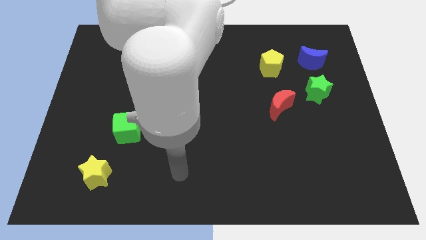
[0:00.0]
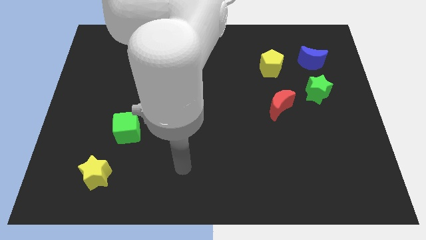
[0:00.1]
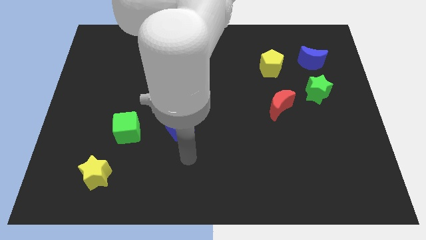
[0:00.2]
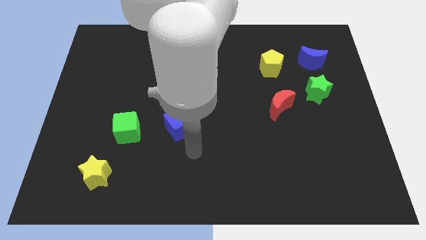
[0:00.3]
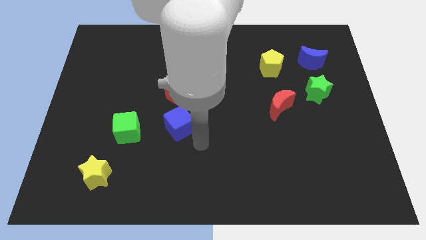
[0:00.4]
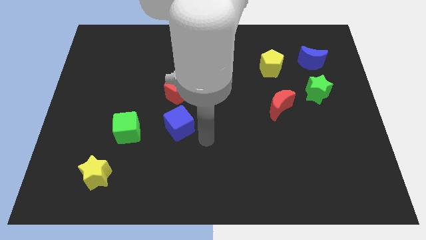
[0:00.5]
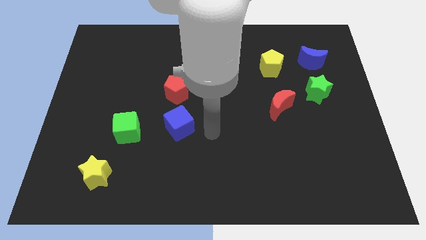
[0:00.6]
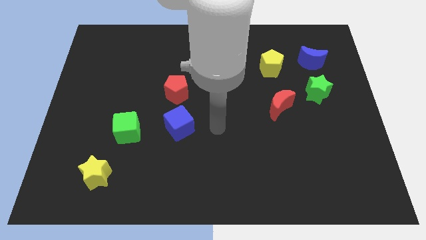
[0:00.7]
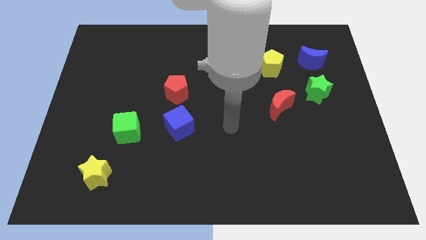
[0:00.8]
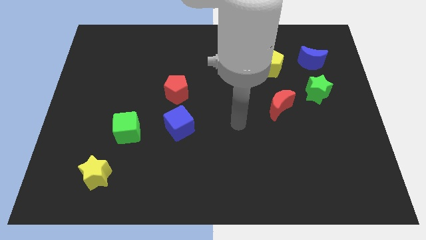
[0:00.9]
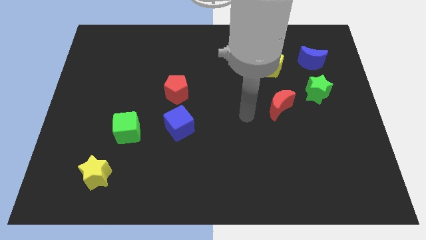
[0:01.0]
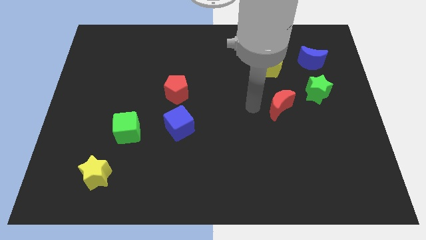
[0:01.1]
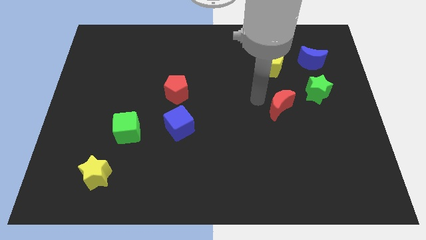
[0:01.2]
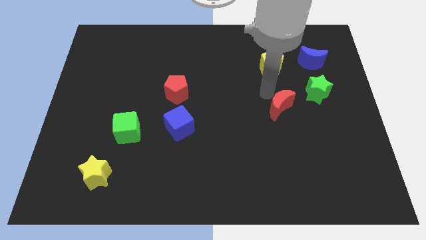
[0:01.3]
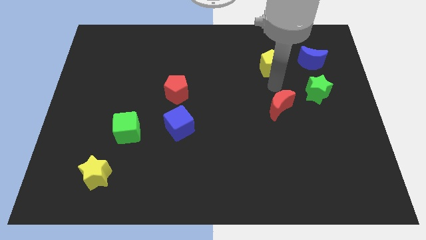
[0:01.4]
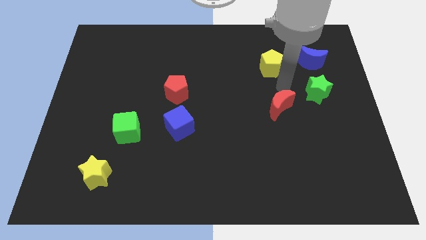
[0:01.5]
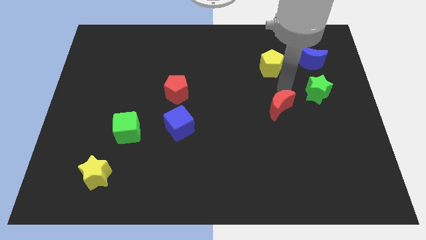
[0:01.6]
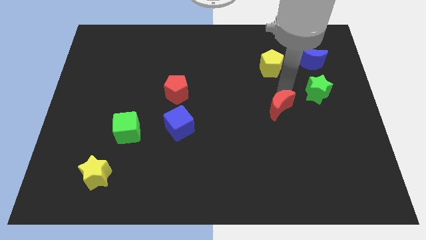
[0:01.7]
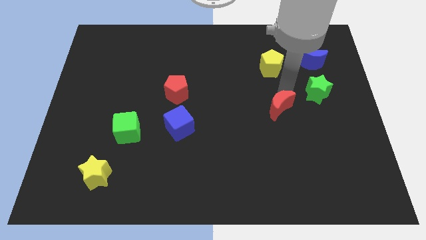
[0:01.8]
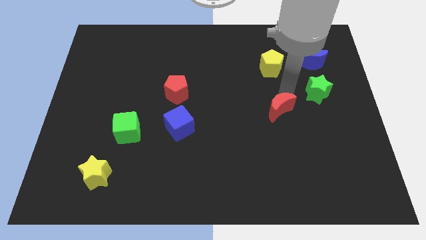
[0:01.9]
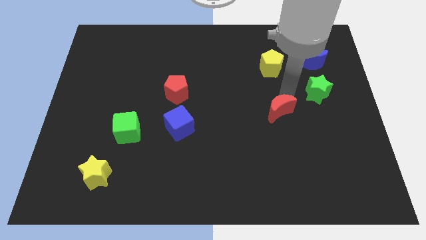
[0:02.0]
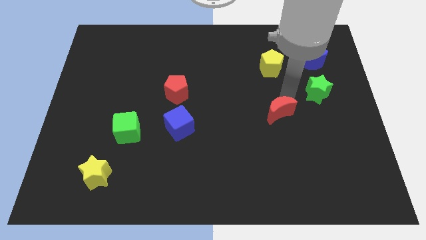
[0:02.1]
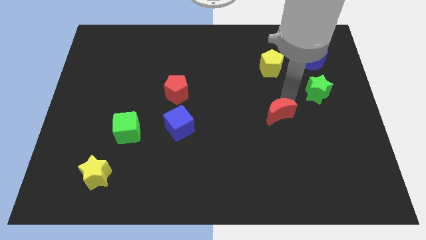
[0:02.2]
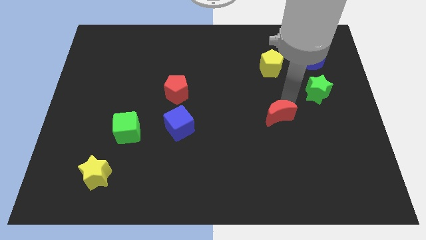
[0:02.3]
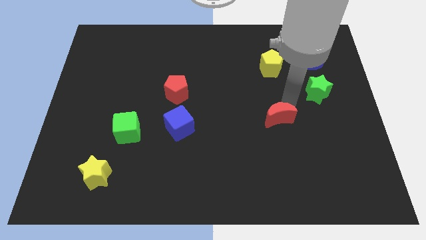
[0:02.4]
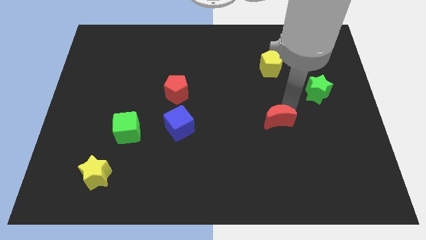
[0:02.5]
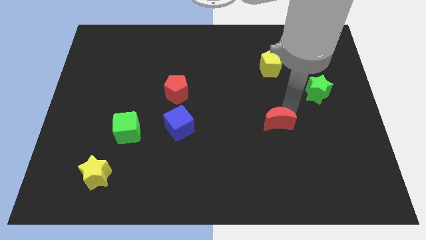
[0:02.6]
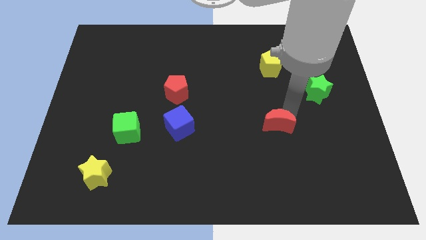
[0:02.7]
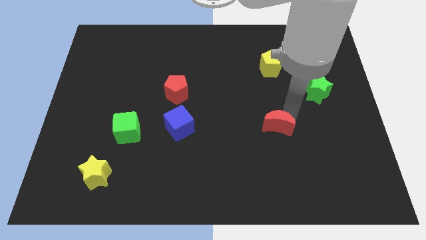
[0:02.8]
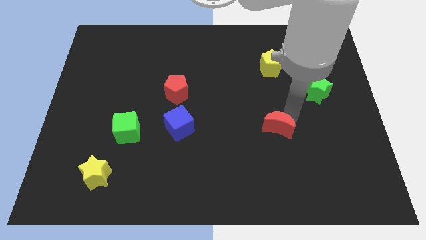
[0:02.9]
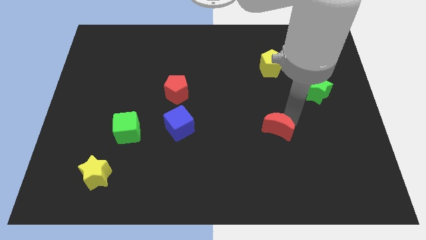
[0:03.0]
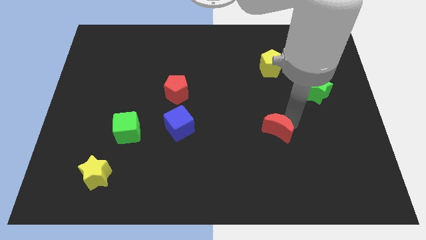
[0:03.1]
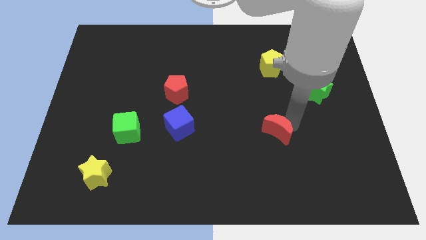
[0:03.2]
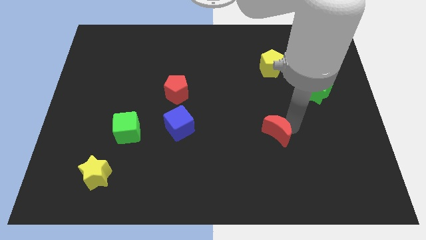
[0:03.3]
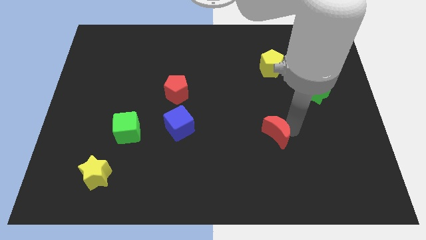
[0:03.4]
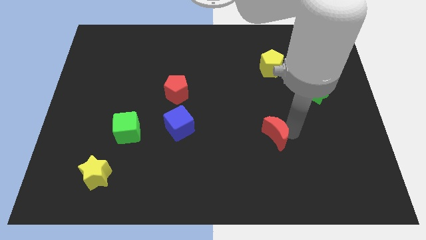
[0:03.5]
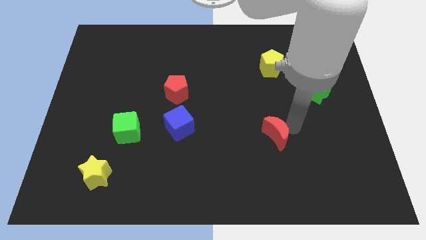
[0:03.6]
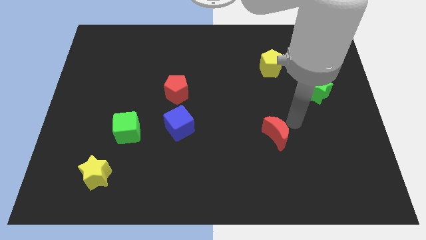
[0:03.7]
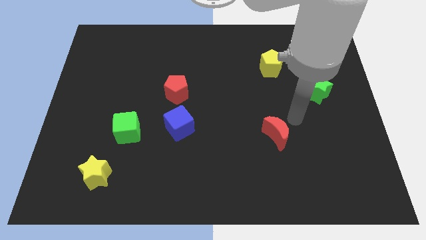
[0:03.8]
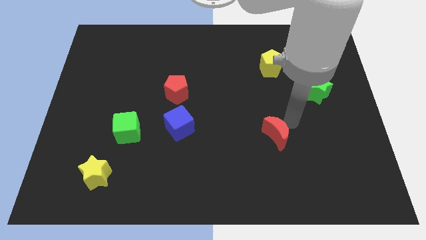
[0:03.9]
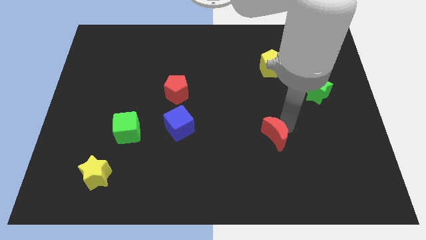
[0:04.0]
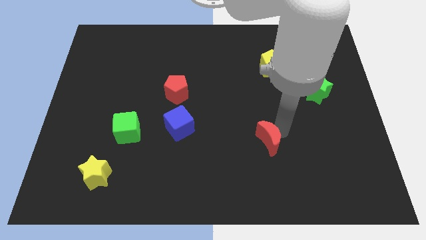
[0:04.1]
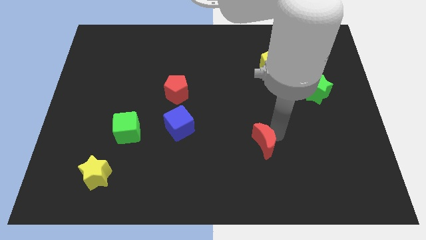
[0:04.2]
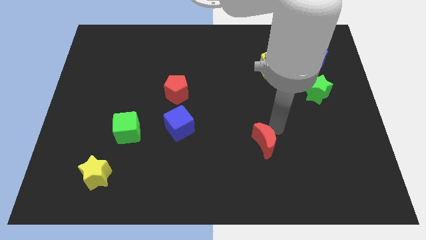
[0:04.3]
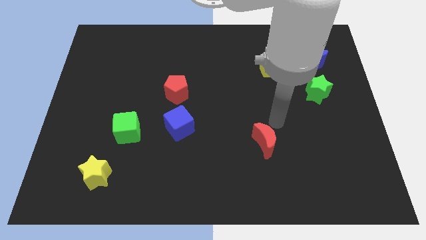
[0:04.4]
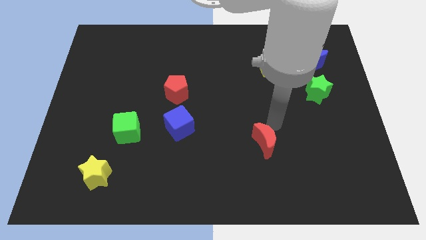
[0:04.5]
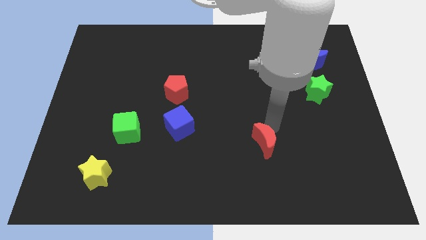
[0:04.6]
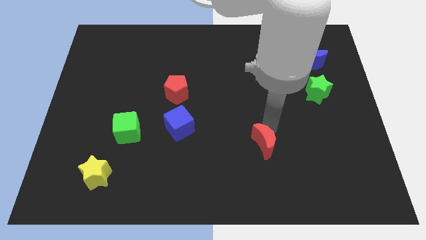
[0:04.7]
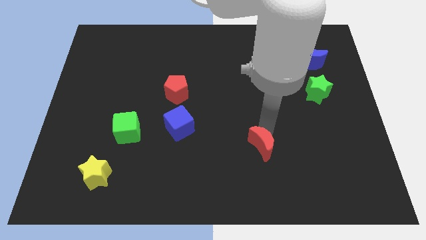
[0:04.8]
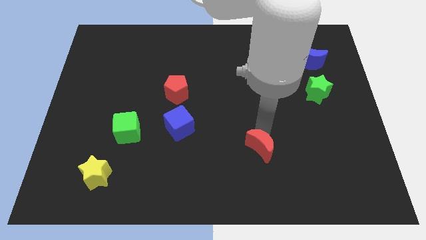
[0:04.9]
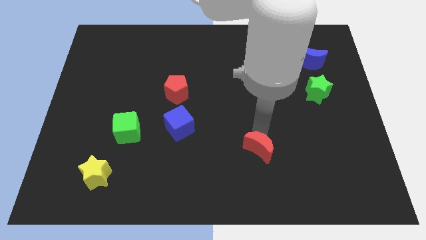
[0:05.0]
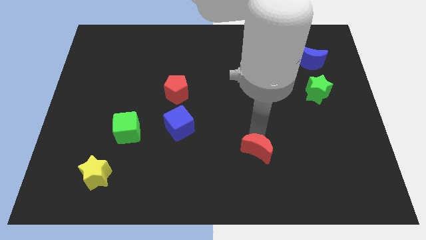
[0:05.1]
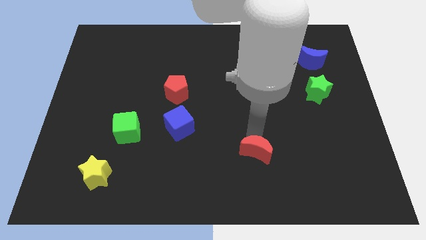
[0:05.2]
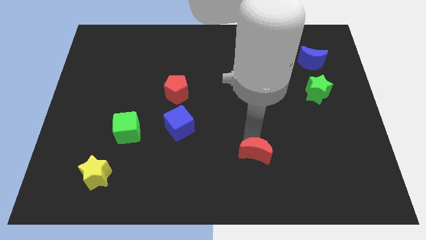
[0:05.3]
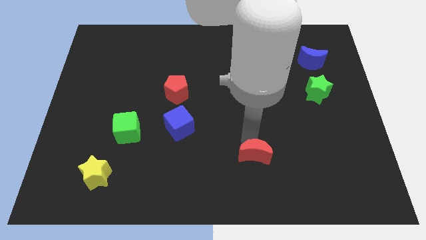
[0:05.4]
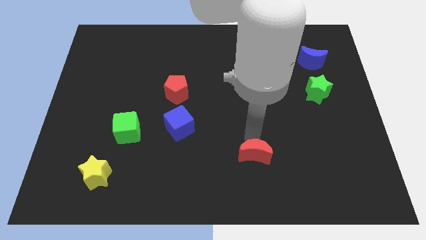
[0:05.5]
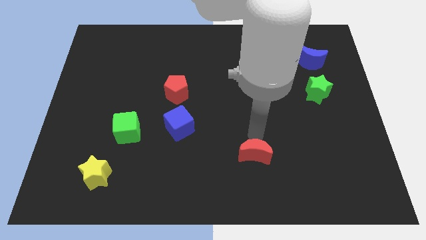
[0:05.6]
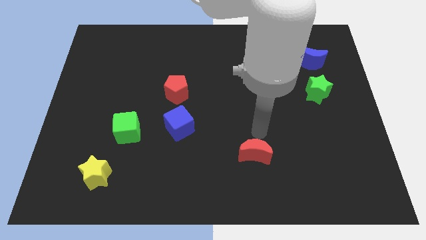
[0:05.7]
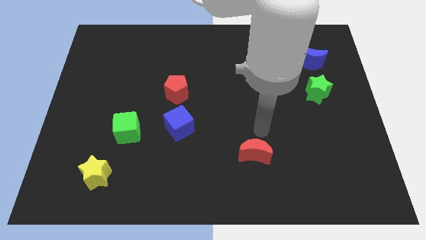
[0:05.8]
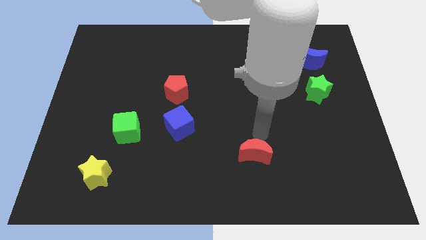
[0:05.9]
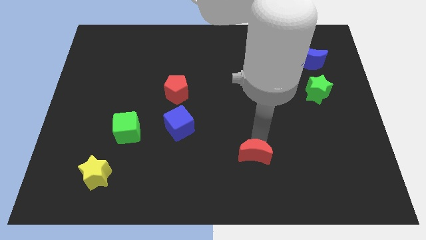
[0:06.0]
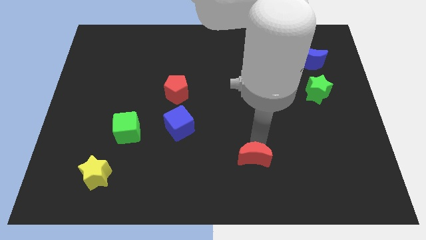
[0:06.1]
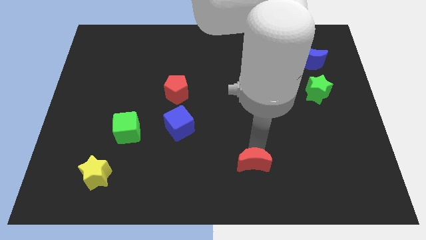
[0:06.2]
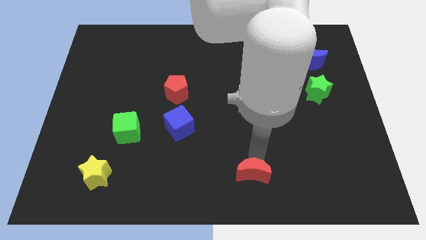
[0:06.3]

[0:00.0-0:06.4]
slide the red moon to the bottom side

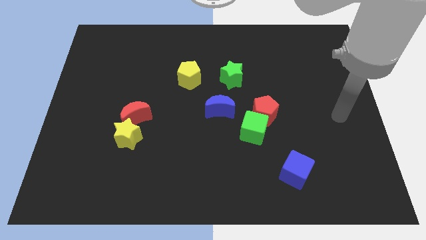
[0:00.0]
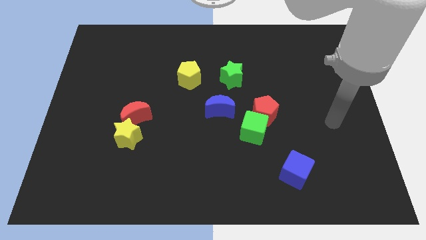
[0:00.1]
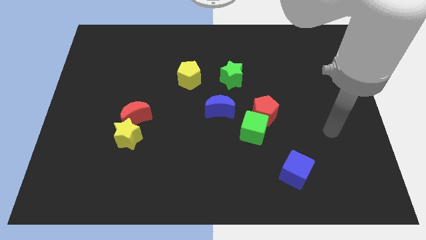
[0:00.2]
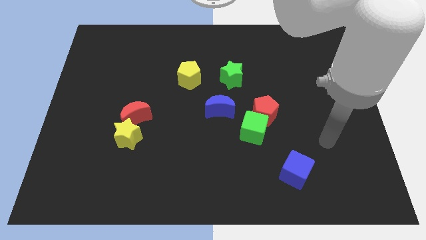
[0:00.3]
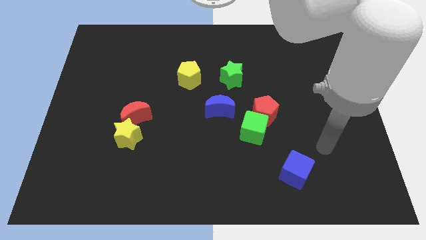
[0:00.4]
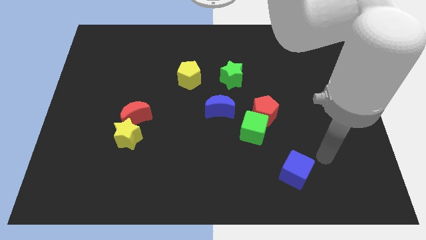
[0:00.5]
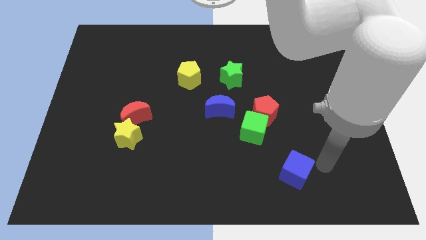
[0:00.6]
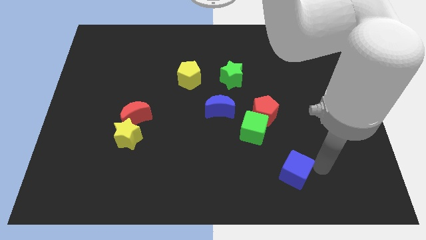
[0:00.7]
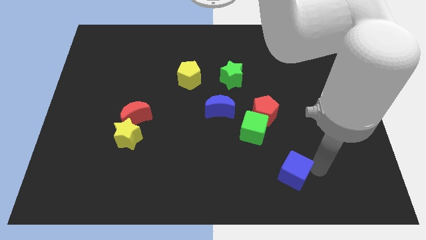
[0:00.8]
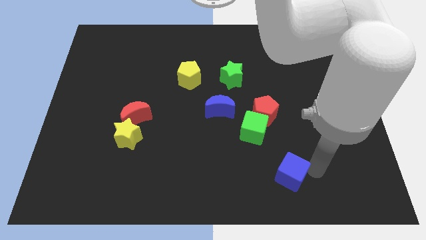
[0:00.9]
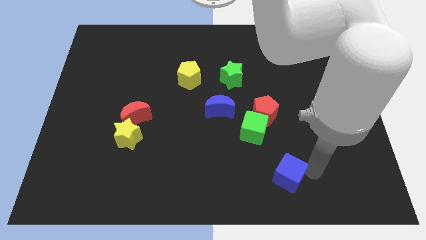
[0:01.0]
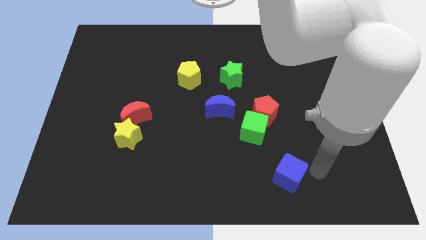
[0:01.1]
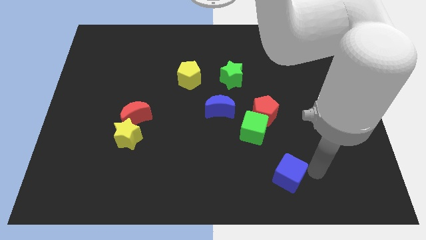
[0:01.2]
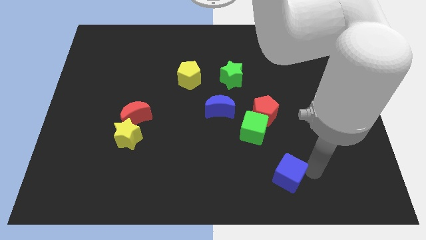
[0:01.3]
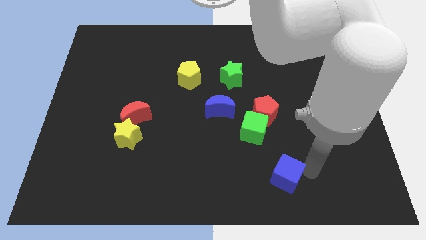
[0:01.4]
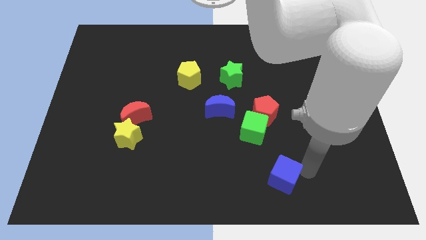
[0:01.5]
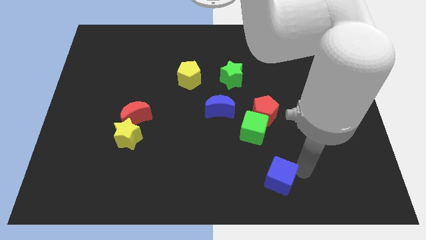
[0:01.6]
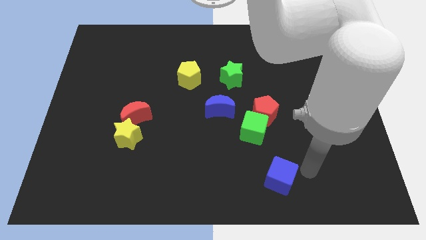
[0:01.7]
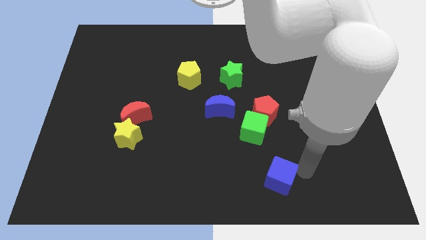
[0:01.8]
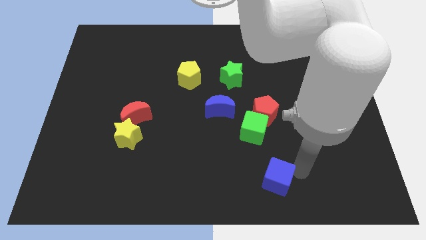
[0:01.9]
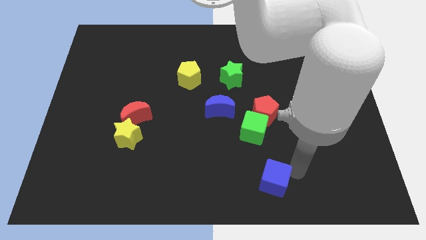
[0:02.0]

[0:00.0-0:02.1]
push the blue cube to the bottom side
